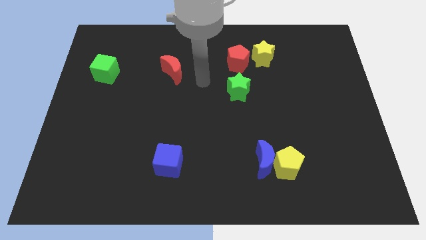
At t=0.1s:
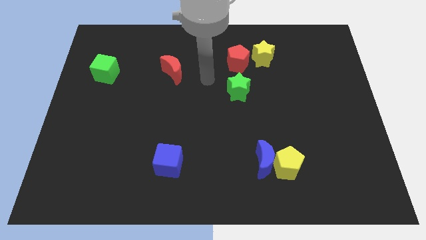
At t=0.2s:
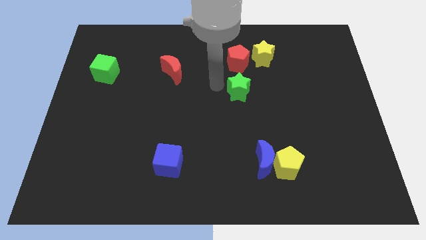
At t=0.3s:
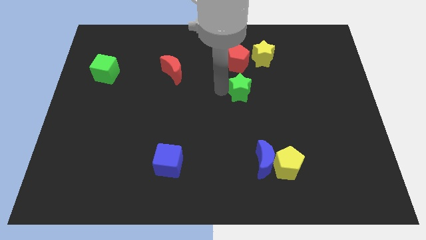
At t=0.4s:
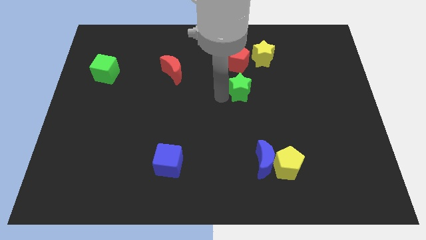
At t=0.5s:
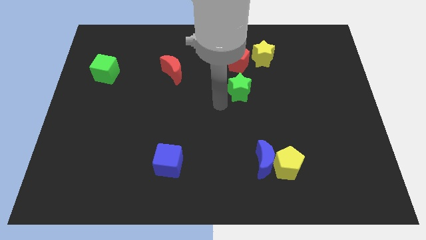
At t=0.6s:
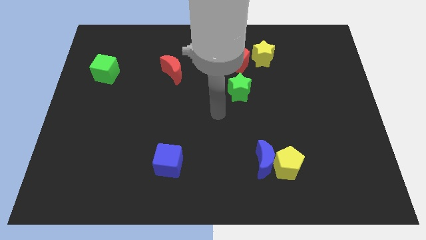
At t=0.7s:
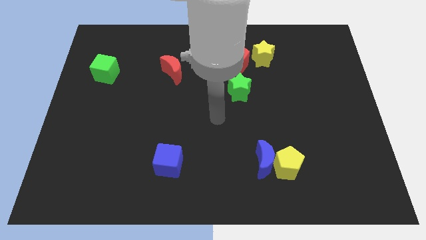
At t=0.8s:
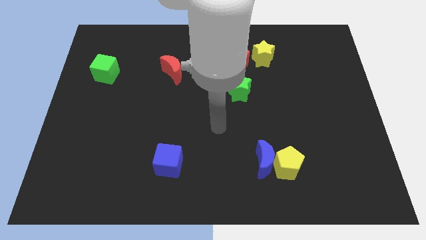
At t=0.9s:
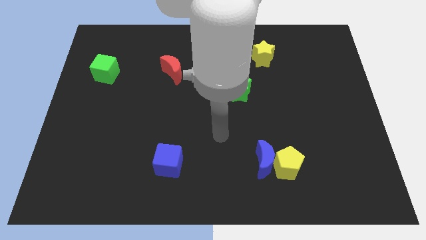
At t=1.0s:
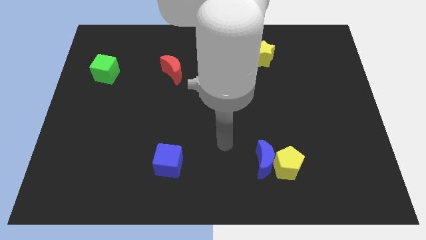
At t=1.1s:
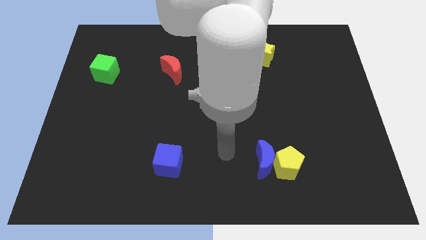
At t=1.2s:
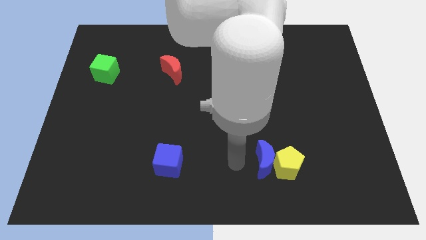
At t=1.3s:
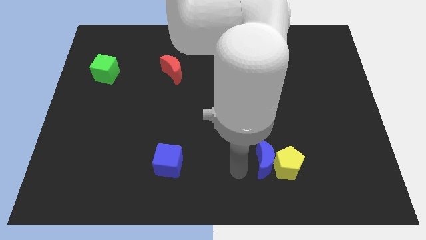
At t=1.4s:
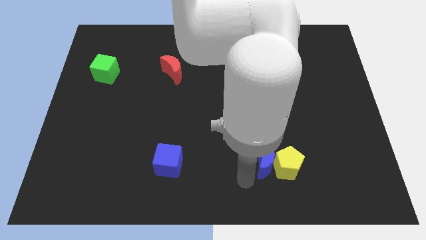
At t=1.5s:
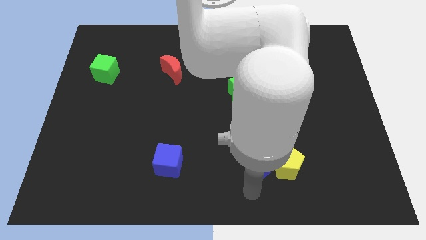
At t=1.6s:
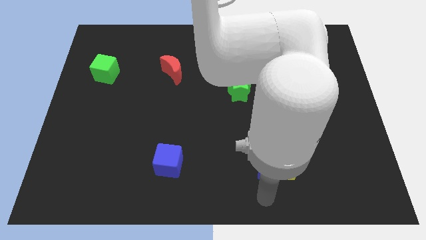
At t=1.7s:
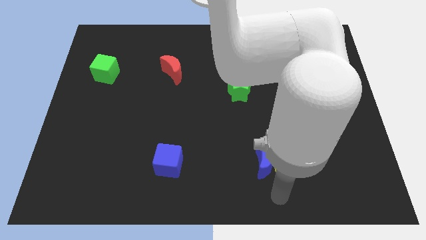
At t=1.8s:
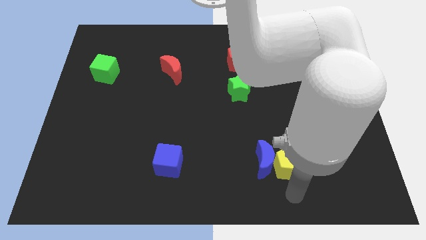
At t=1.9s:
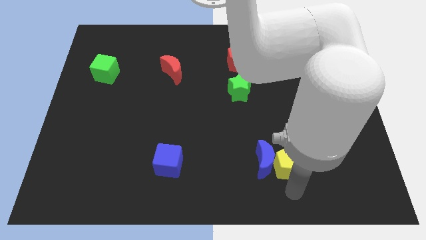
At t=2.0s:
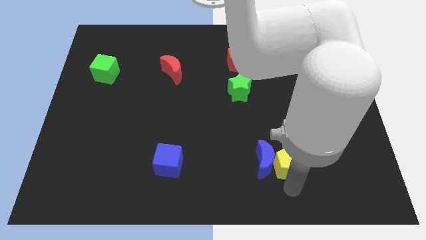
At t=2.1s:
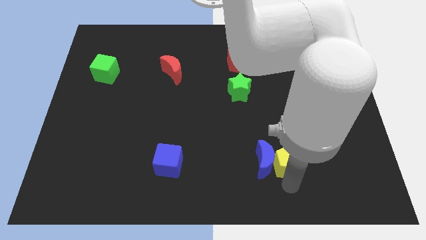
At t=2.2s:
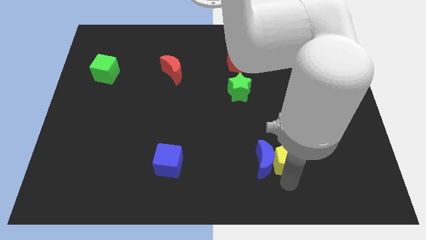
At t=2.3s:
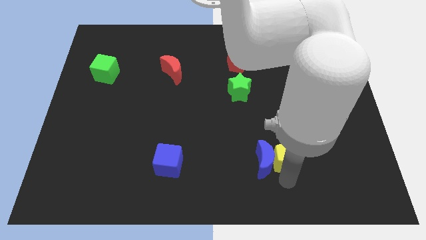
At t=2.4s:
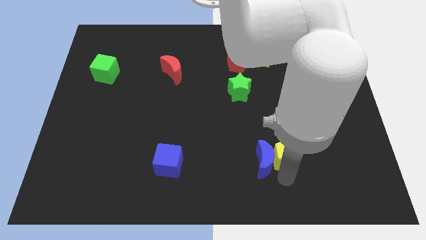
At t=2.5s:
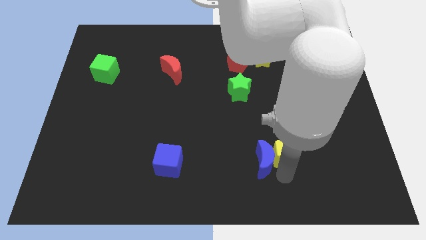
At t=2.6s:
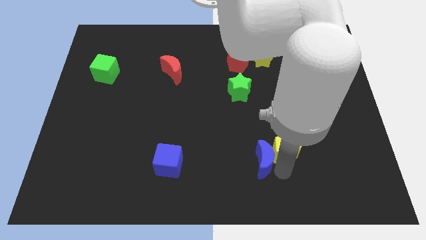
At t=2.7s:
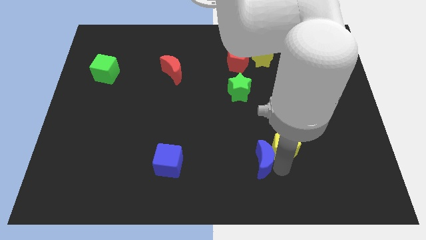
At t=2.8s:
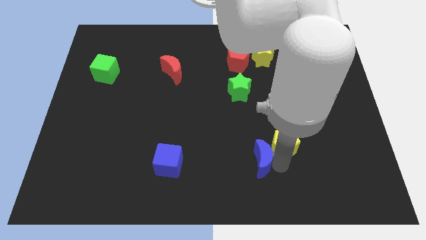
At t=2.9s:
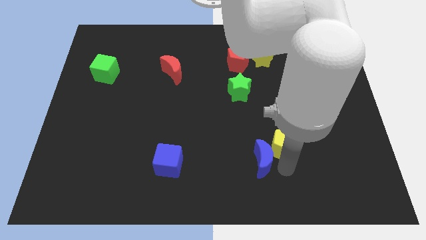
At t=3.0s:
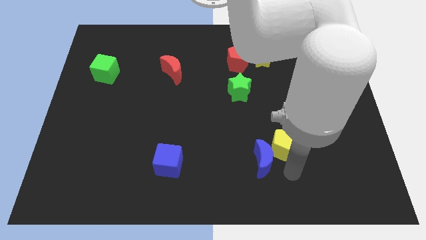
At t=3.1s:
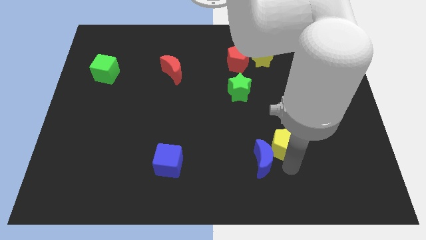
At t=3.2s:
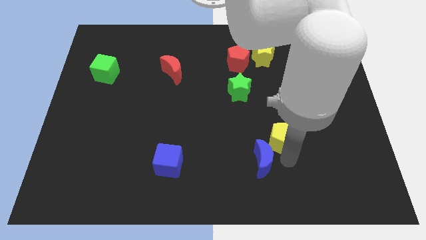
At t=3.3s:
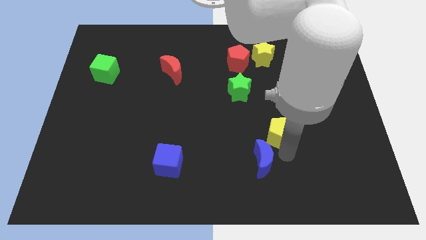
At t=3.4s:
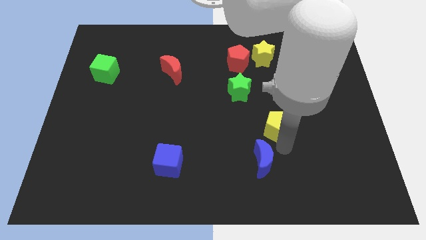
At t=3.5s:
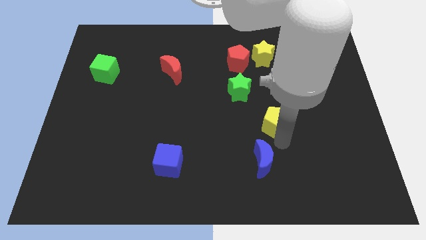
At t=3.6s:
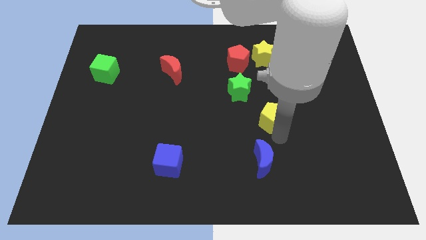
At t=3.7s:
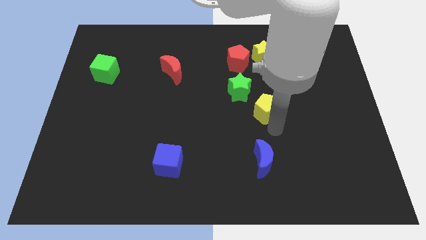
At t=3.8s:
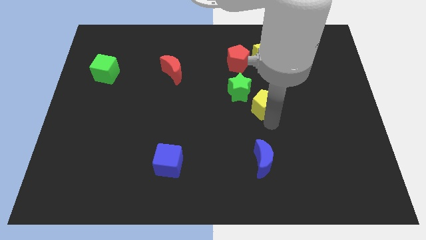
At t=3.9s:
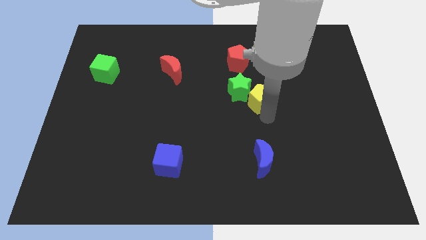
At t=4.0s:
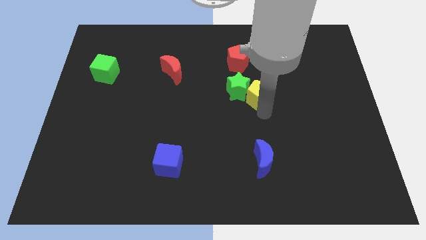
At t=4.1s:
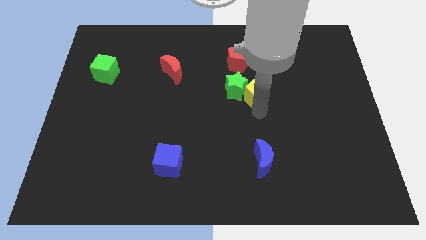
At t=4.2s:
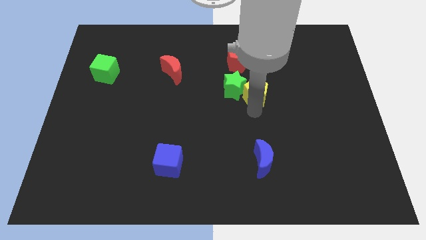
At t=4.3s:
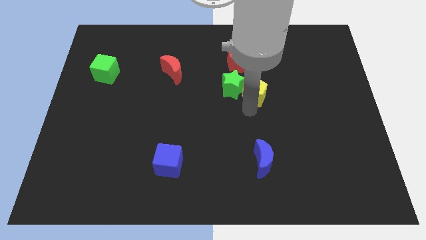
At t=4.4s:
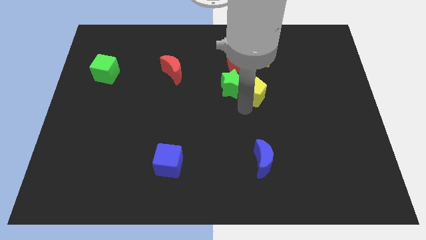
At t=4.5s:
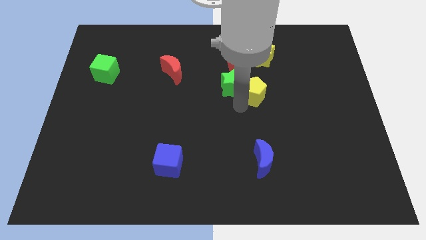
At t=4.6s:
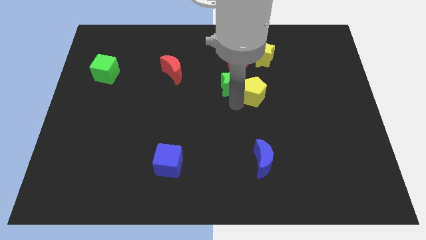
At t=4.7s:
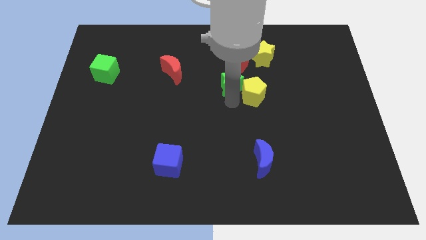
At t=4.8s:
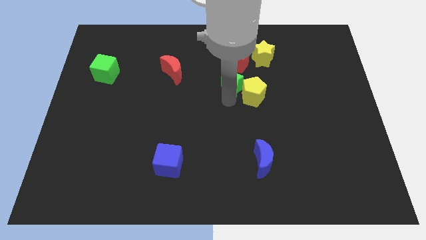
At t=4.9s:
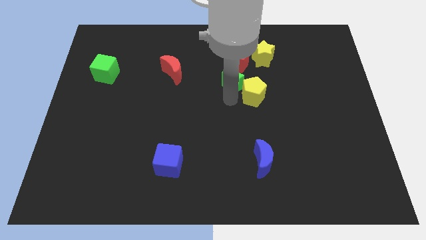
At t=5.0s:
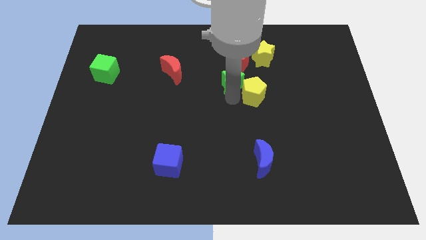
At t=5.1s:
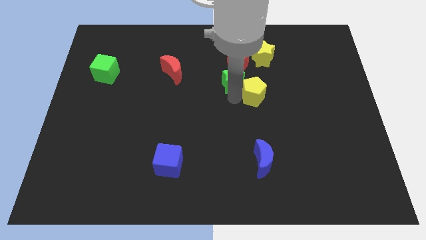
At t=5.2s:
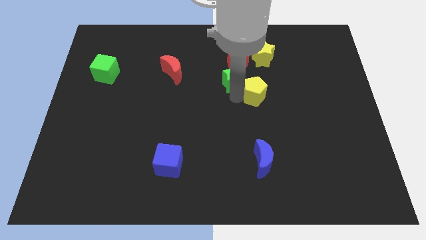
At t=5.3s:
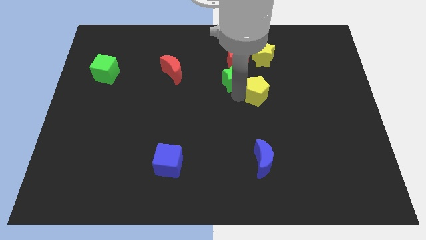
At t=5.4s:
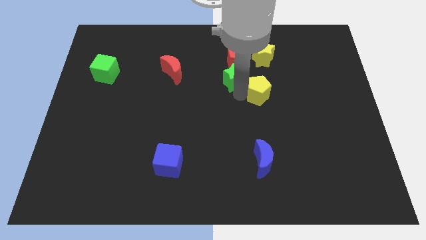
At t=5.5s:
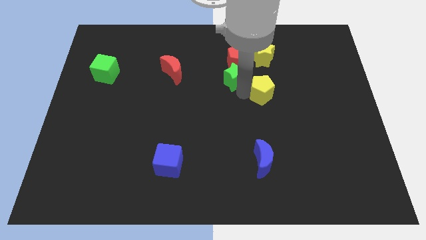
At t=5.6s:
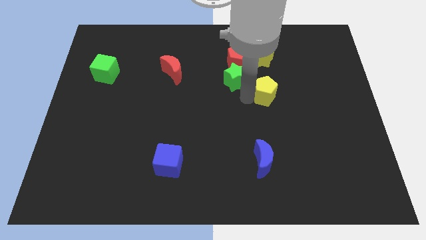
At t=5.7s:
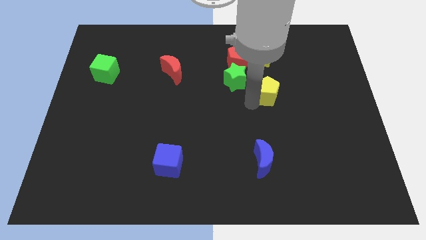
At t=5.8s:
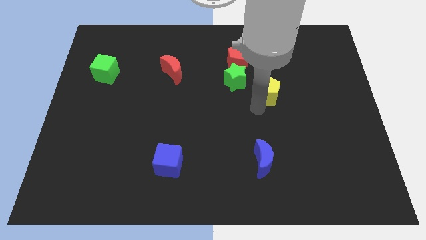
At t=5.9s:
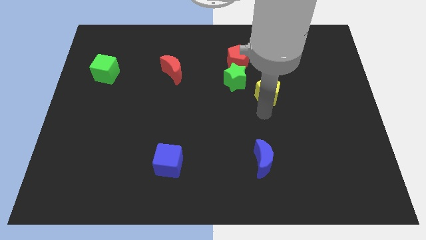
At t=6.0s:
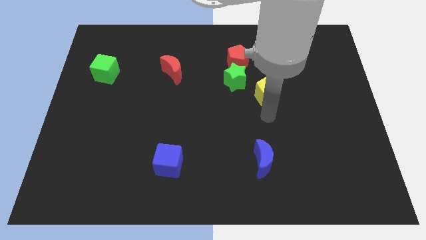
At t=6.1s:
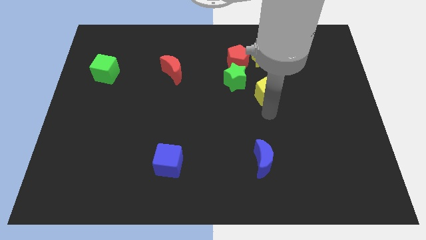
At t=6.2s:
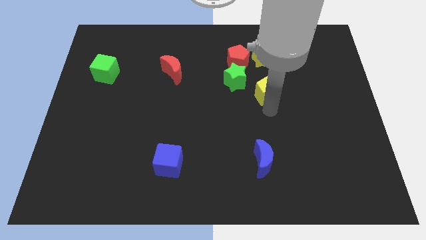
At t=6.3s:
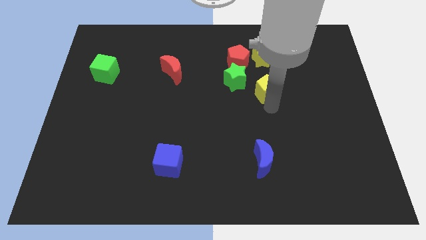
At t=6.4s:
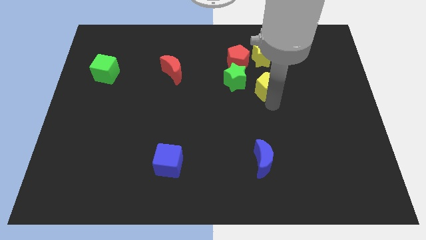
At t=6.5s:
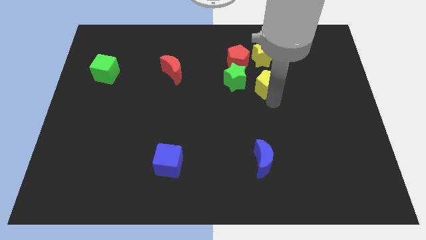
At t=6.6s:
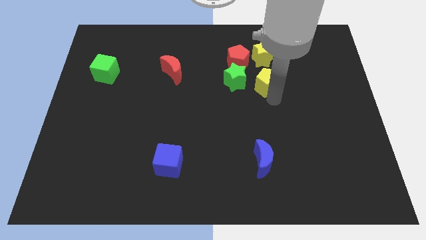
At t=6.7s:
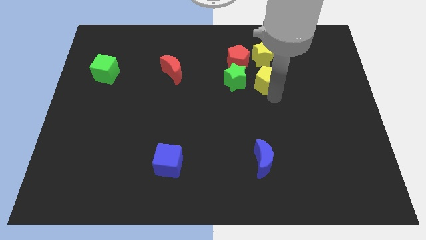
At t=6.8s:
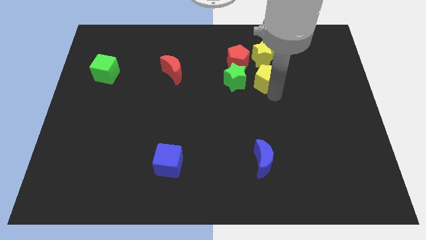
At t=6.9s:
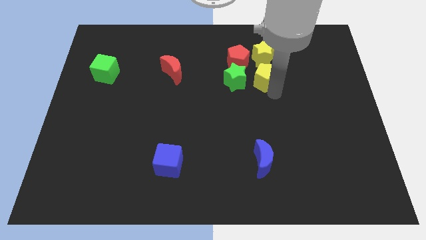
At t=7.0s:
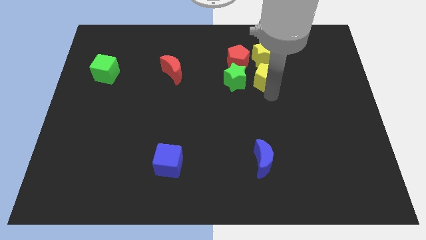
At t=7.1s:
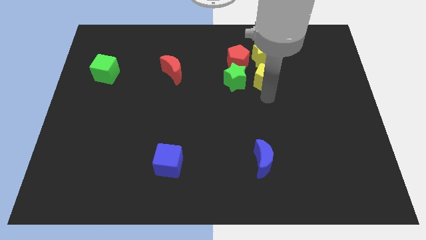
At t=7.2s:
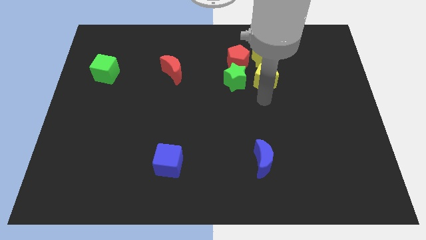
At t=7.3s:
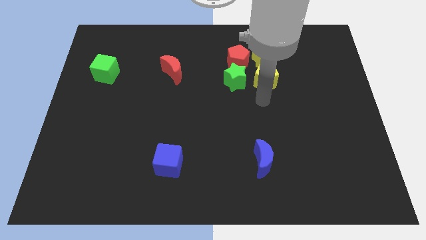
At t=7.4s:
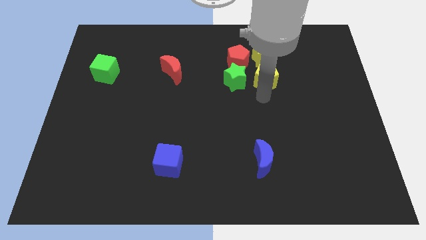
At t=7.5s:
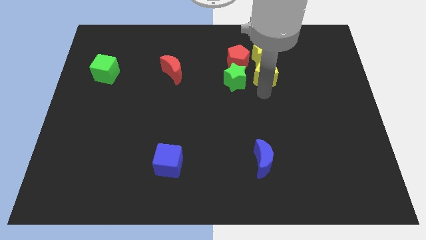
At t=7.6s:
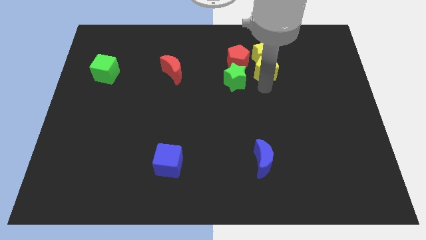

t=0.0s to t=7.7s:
put the yellow pentagon towards the yellow star
